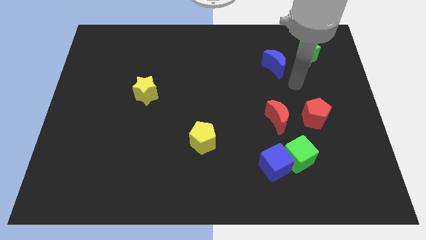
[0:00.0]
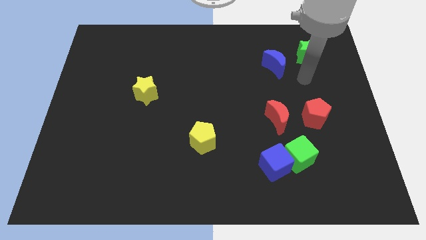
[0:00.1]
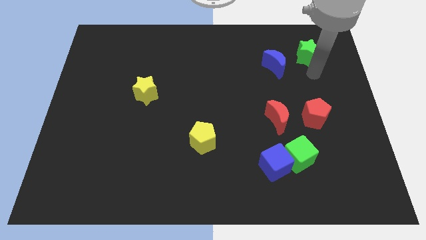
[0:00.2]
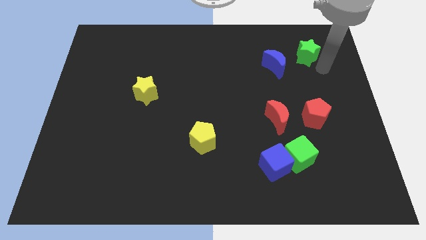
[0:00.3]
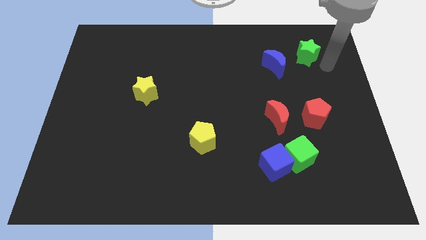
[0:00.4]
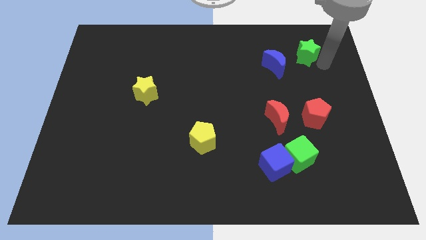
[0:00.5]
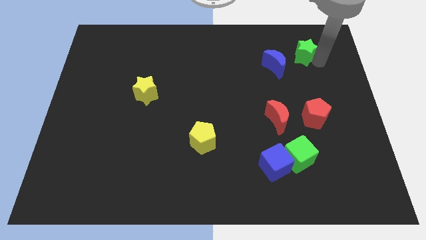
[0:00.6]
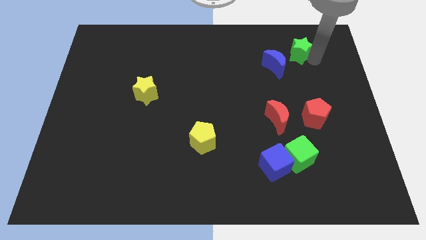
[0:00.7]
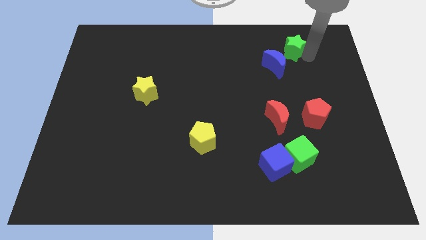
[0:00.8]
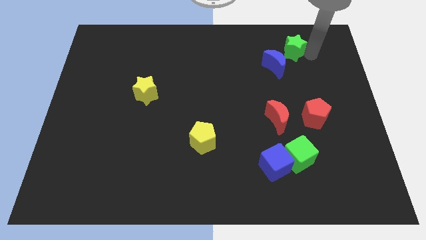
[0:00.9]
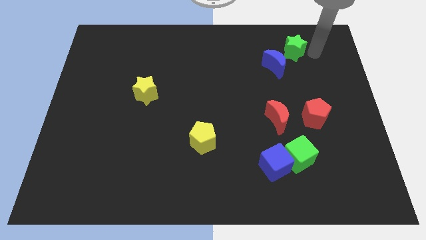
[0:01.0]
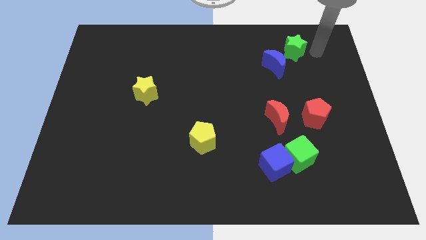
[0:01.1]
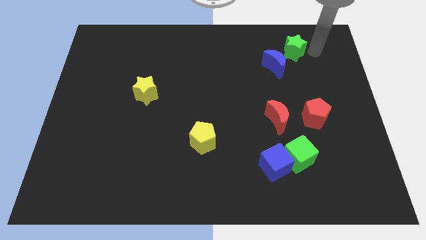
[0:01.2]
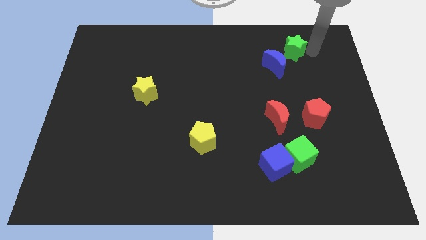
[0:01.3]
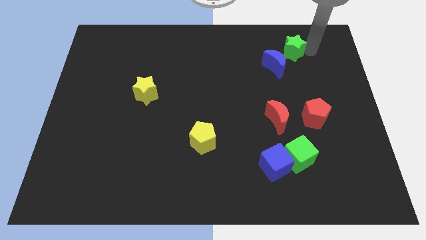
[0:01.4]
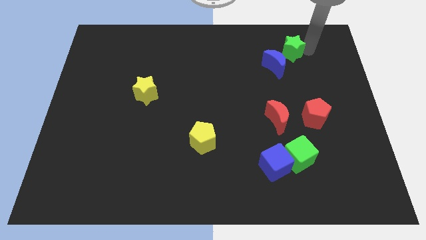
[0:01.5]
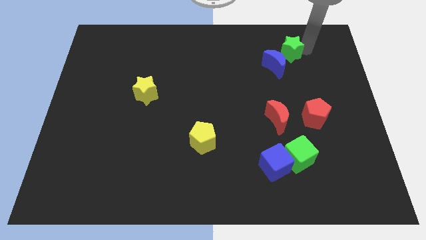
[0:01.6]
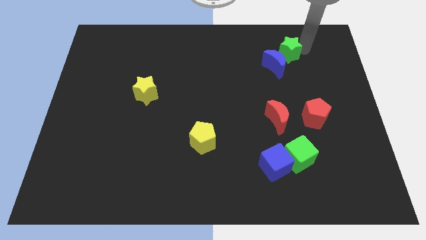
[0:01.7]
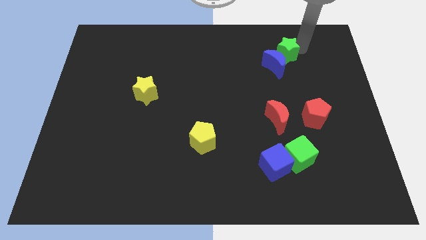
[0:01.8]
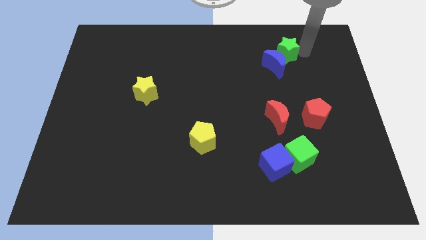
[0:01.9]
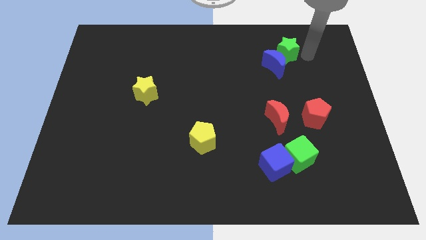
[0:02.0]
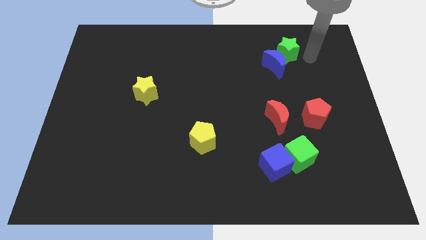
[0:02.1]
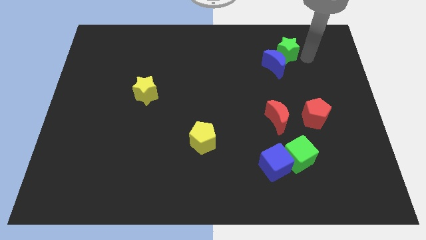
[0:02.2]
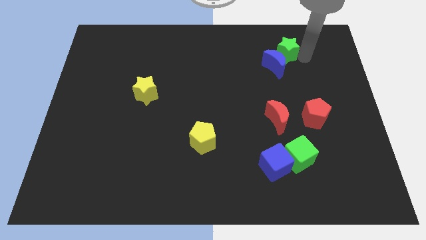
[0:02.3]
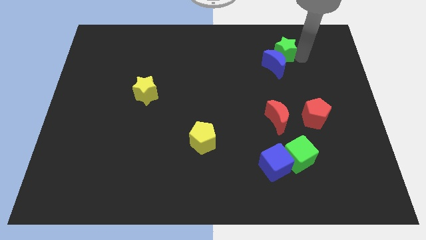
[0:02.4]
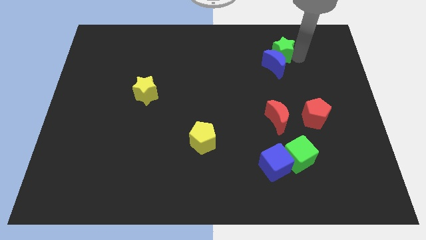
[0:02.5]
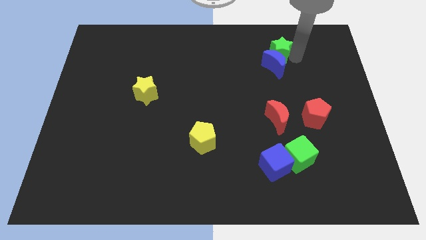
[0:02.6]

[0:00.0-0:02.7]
slightly push the green star left

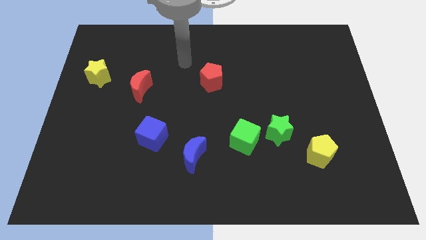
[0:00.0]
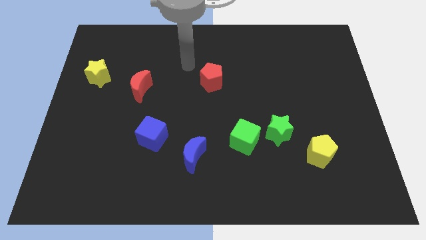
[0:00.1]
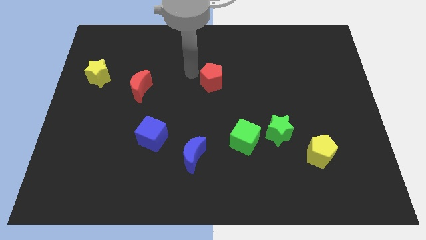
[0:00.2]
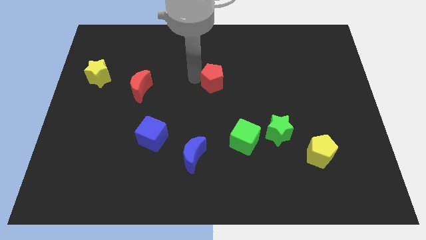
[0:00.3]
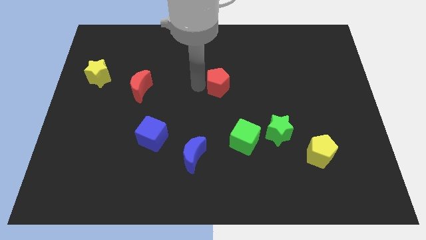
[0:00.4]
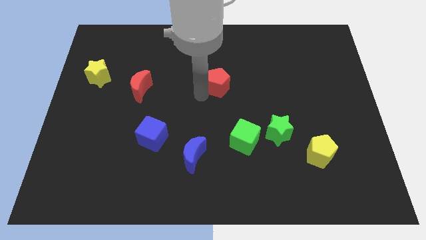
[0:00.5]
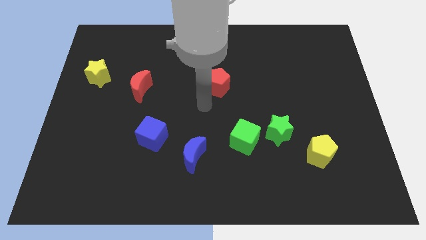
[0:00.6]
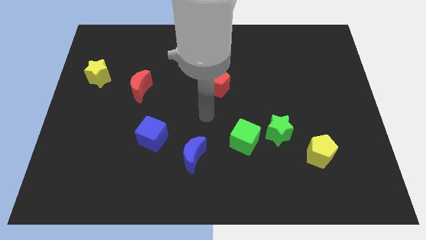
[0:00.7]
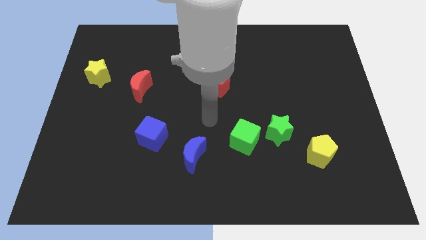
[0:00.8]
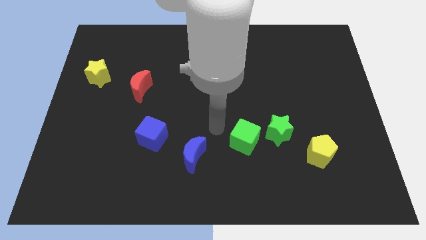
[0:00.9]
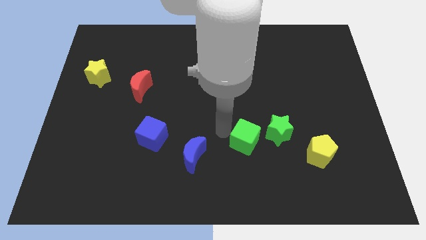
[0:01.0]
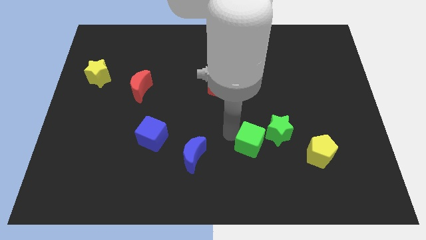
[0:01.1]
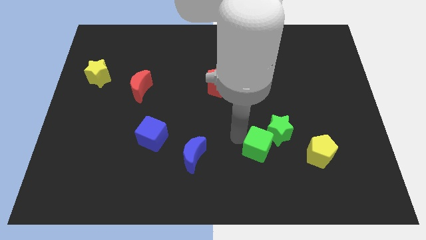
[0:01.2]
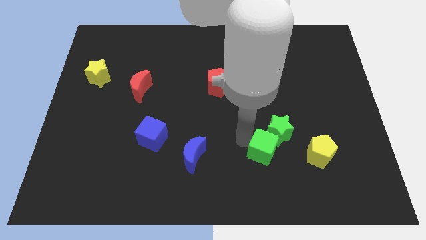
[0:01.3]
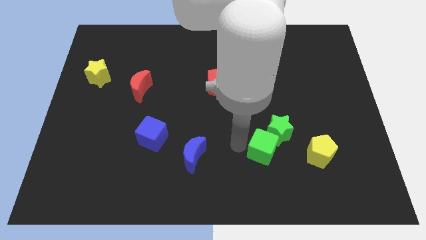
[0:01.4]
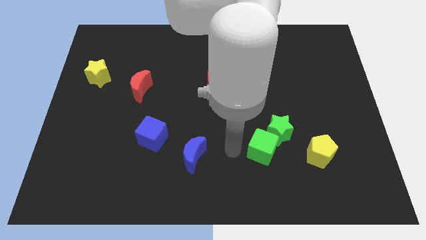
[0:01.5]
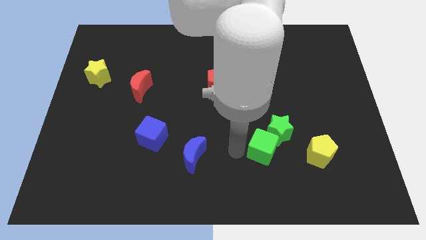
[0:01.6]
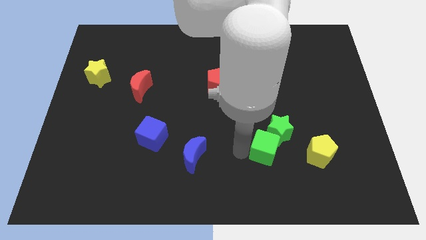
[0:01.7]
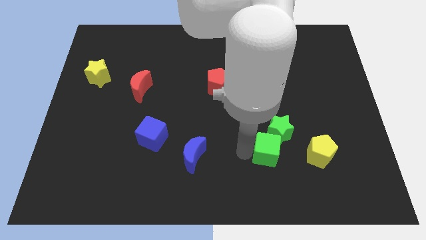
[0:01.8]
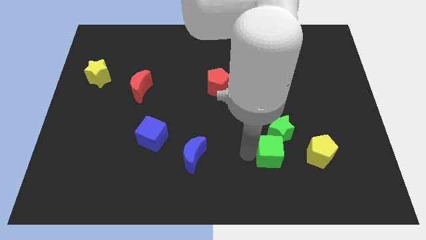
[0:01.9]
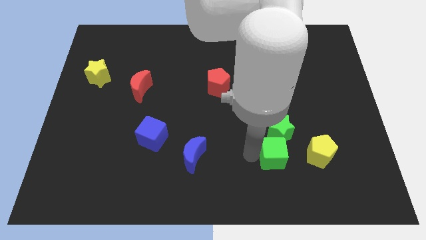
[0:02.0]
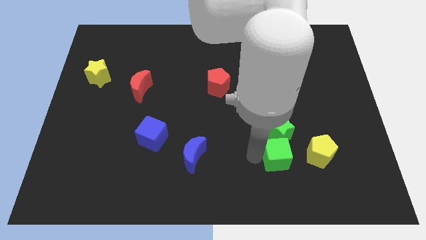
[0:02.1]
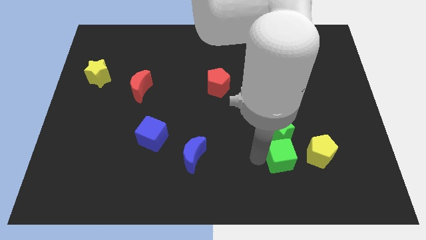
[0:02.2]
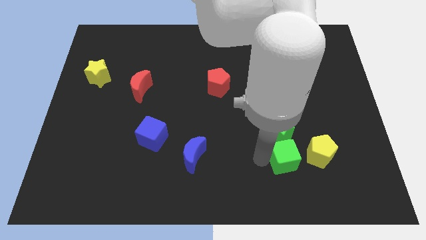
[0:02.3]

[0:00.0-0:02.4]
move the green cube right slightly

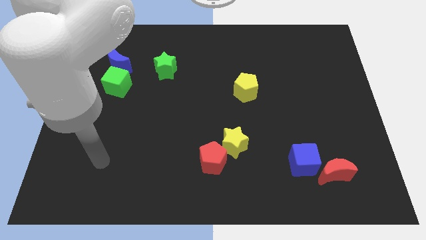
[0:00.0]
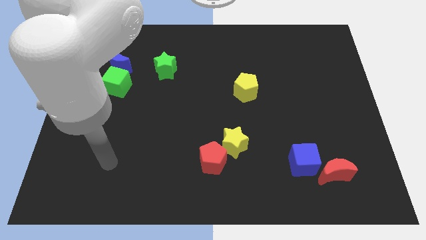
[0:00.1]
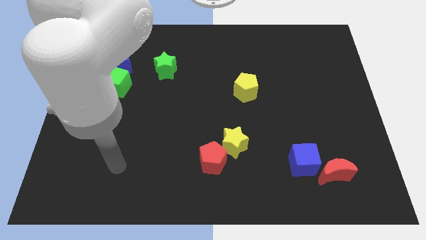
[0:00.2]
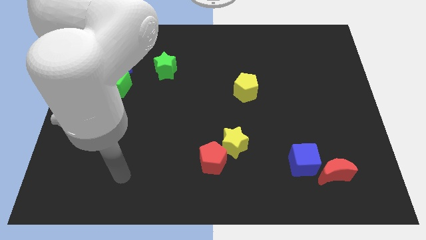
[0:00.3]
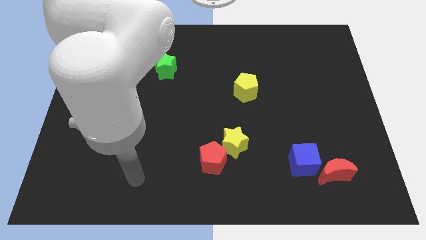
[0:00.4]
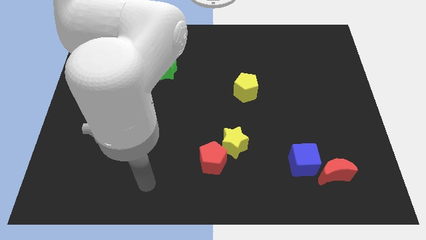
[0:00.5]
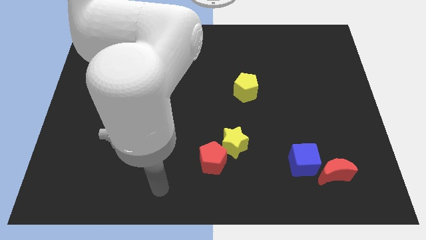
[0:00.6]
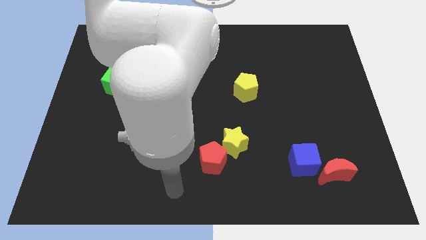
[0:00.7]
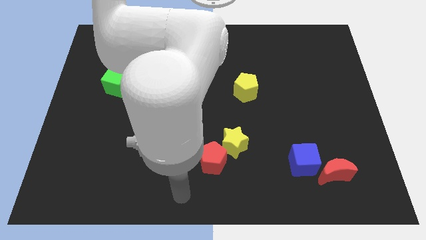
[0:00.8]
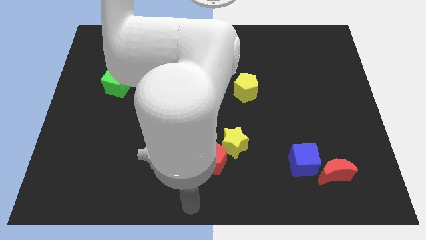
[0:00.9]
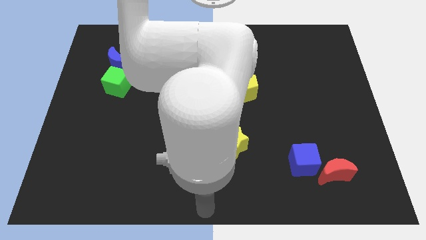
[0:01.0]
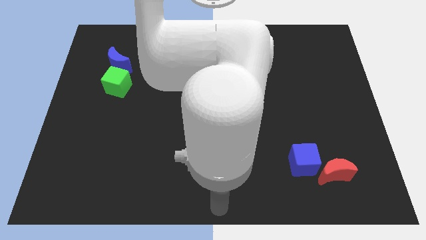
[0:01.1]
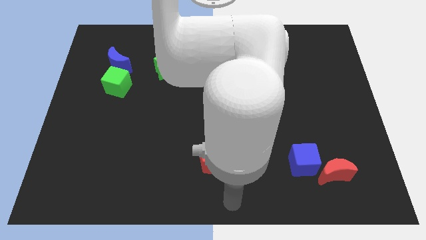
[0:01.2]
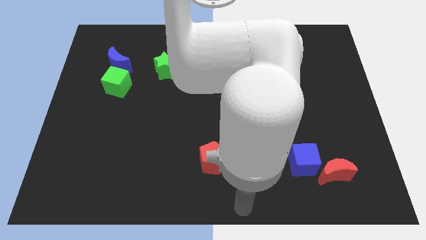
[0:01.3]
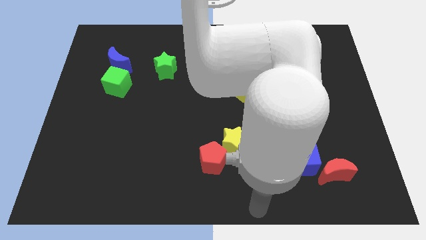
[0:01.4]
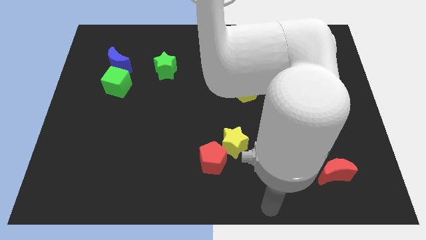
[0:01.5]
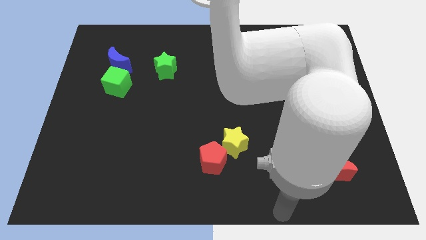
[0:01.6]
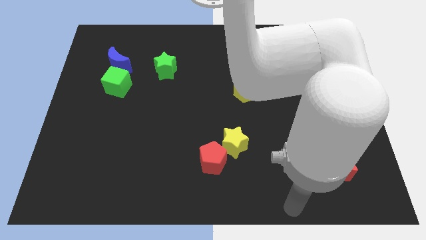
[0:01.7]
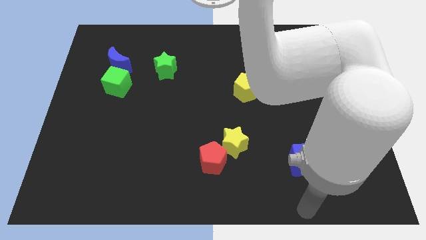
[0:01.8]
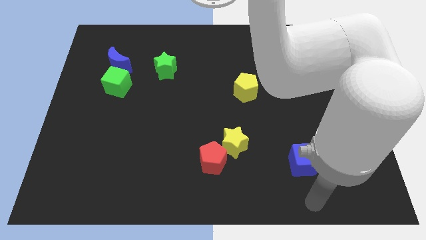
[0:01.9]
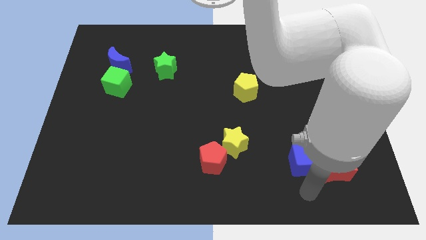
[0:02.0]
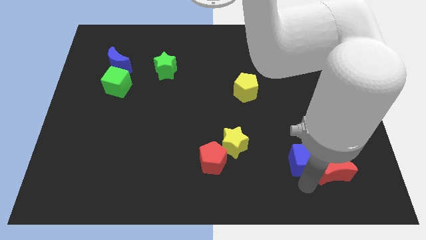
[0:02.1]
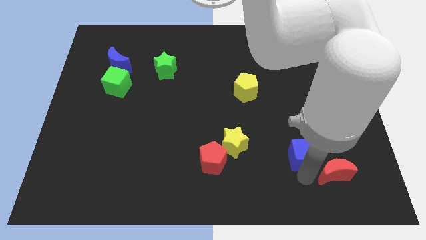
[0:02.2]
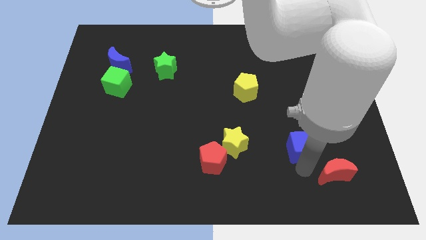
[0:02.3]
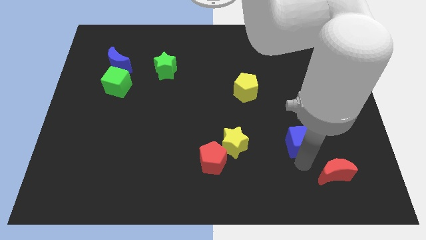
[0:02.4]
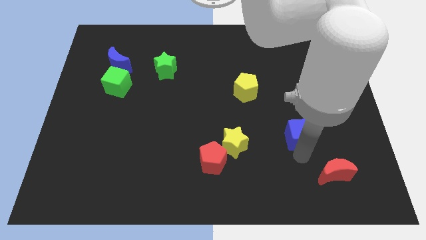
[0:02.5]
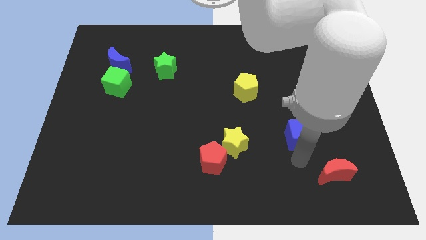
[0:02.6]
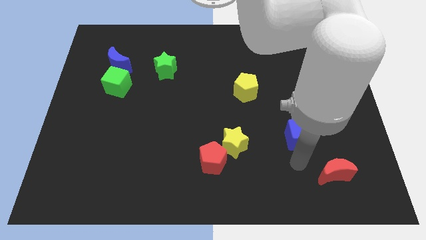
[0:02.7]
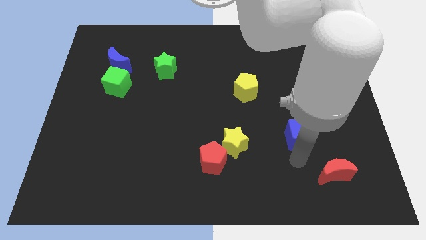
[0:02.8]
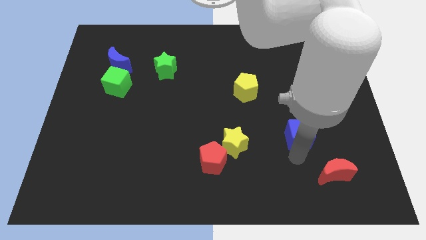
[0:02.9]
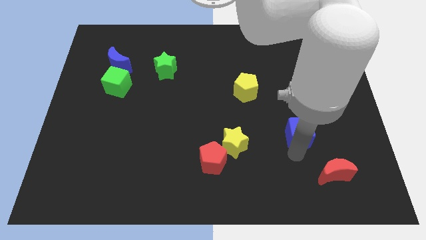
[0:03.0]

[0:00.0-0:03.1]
move the blue cube a little up
